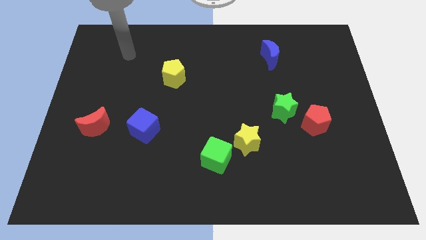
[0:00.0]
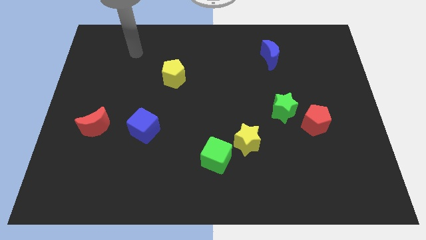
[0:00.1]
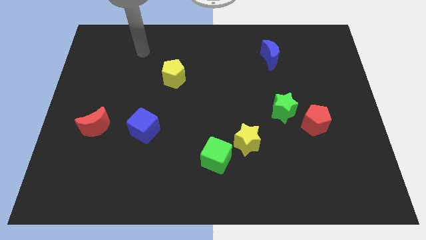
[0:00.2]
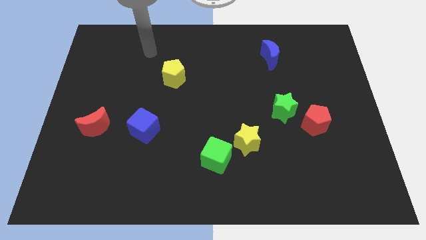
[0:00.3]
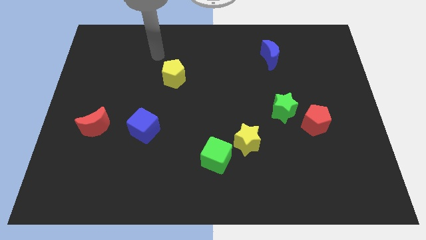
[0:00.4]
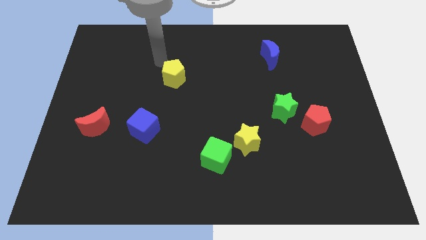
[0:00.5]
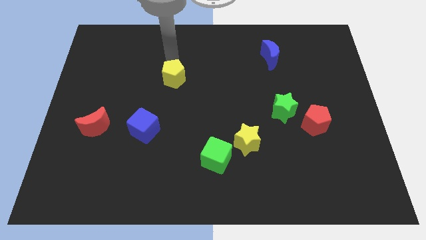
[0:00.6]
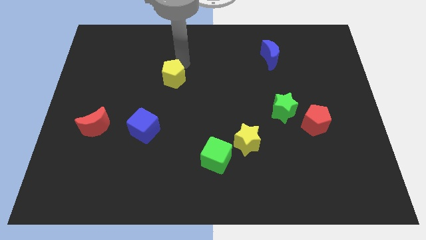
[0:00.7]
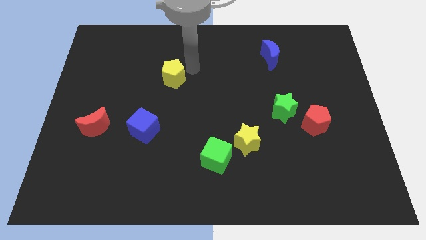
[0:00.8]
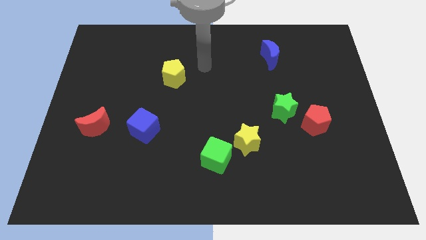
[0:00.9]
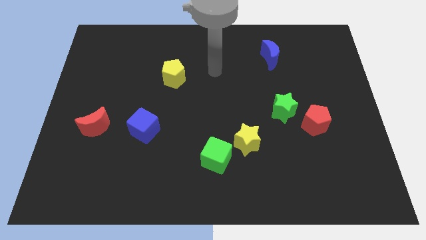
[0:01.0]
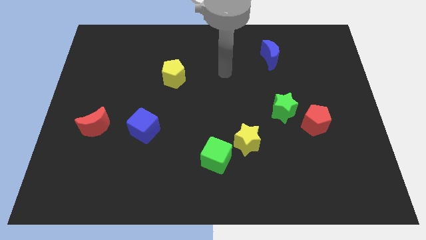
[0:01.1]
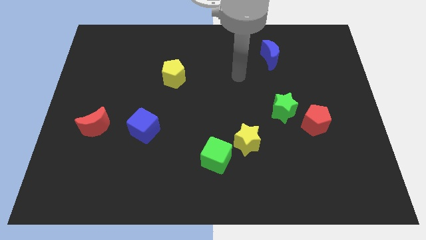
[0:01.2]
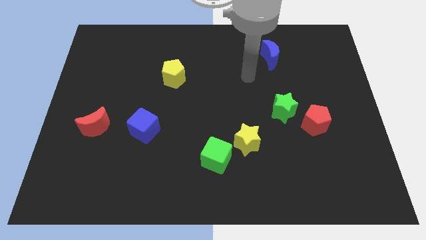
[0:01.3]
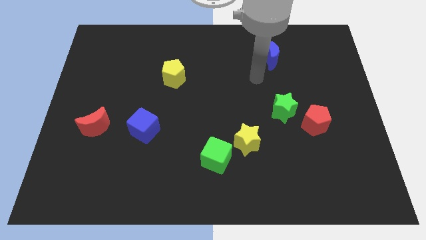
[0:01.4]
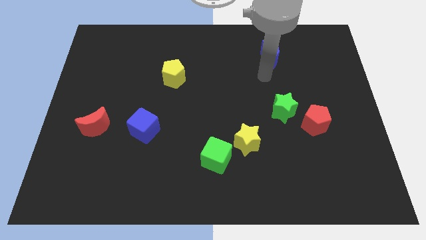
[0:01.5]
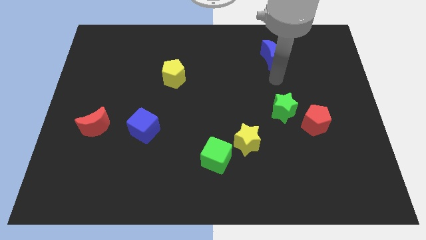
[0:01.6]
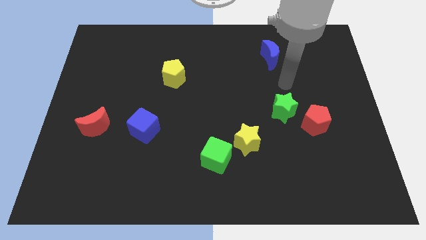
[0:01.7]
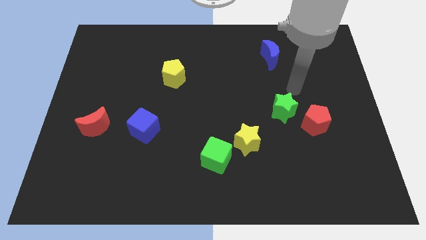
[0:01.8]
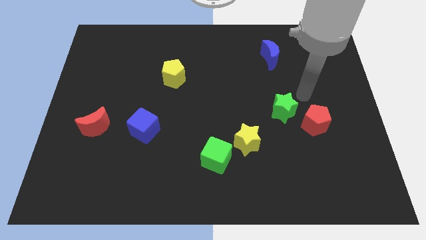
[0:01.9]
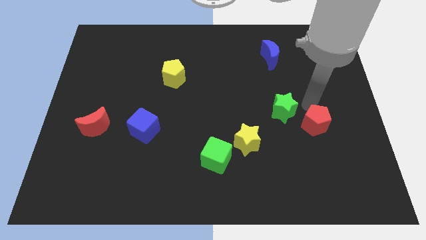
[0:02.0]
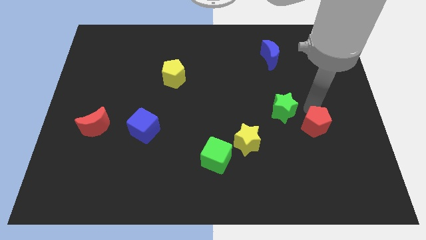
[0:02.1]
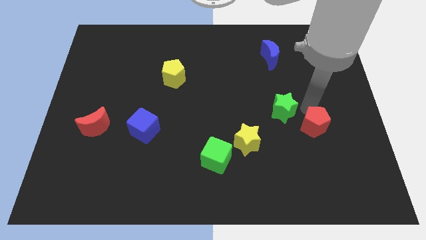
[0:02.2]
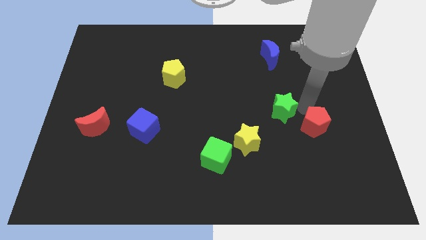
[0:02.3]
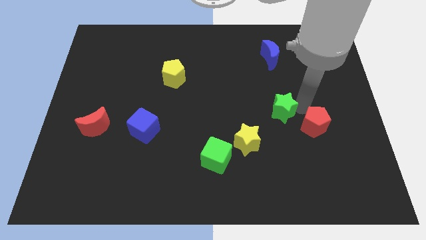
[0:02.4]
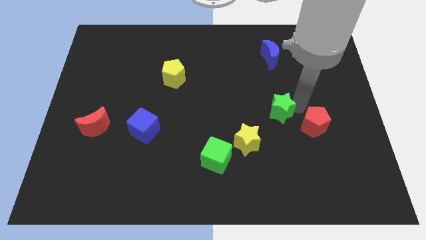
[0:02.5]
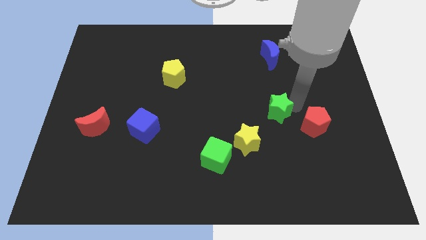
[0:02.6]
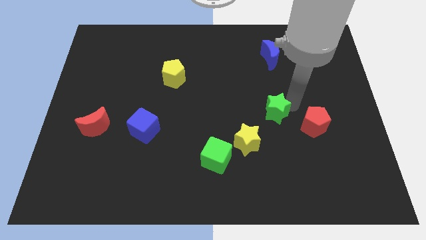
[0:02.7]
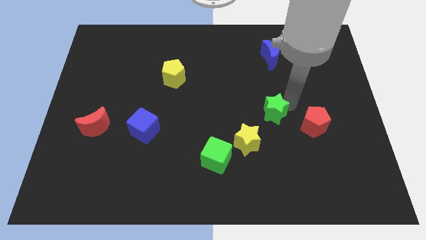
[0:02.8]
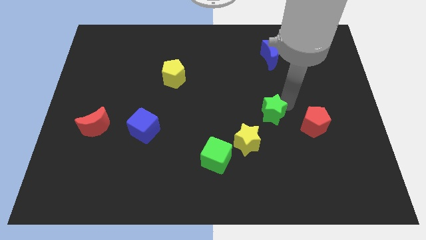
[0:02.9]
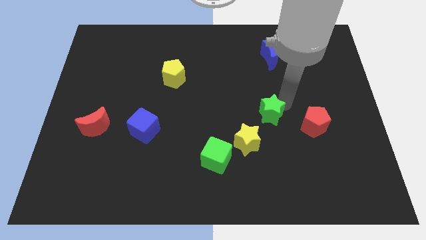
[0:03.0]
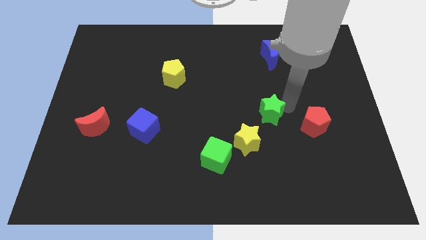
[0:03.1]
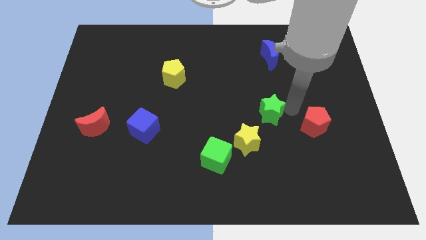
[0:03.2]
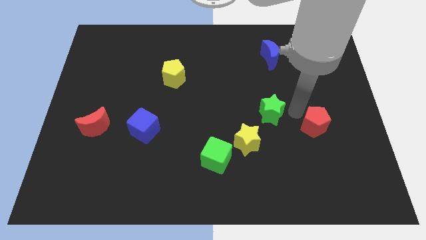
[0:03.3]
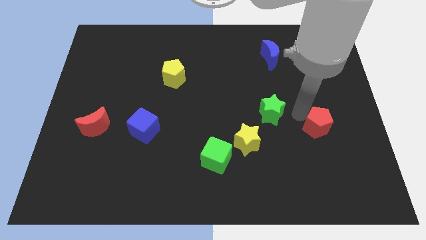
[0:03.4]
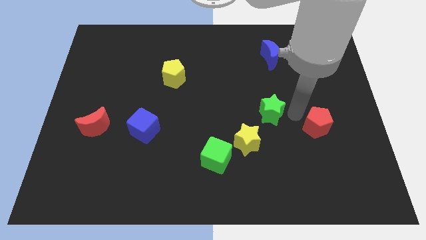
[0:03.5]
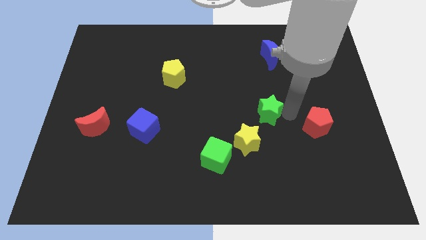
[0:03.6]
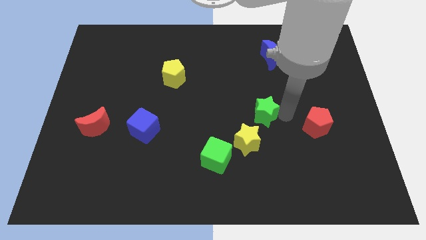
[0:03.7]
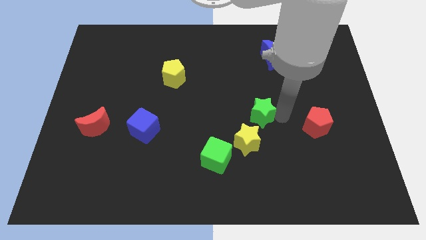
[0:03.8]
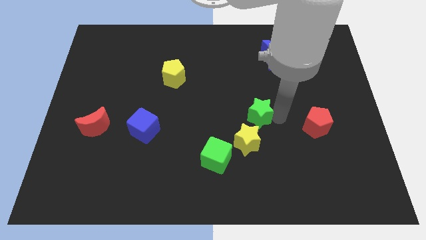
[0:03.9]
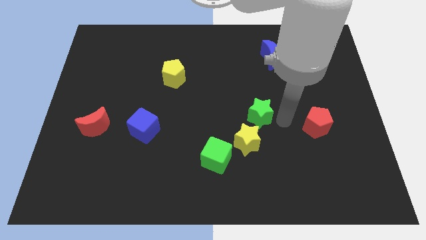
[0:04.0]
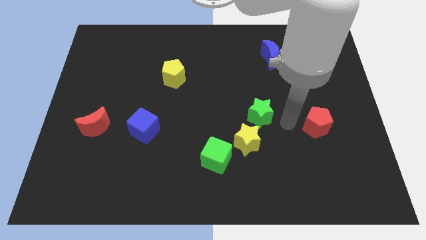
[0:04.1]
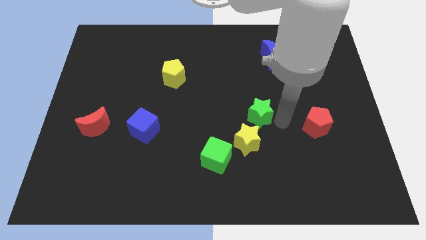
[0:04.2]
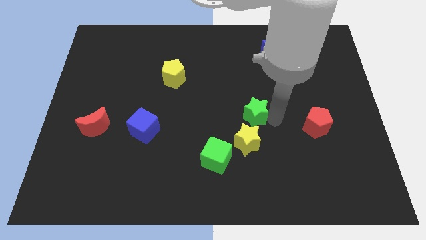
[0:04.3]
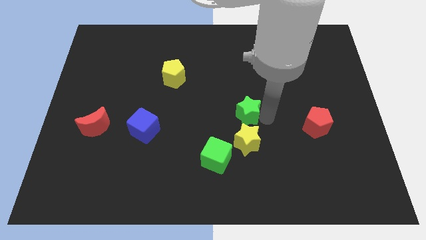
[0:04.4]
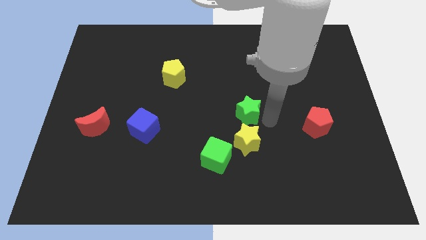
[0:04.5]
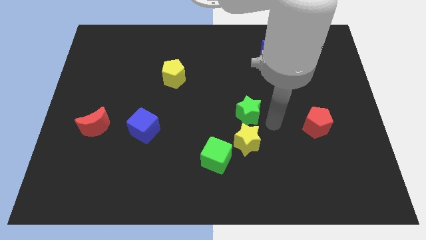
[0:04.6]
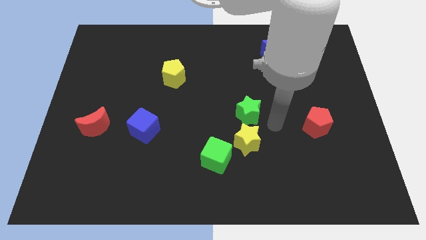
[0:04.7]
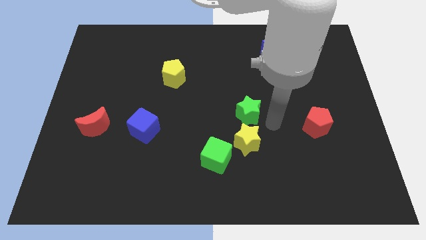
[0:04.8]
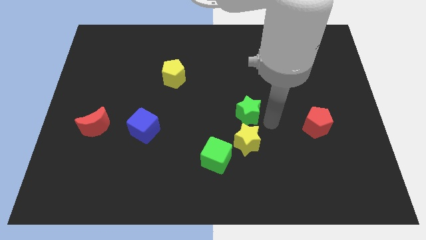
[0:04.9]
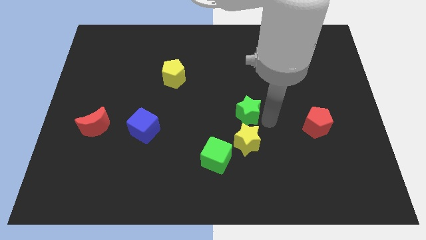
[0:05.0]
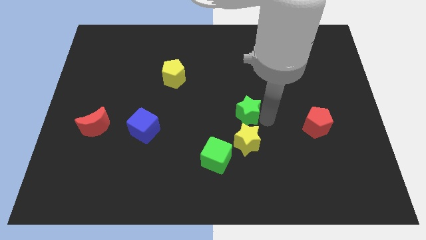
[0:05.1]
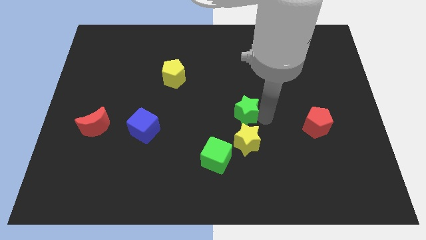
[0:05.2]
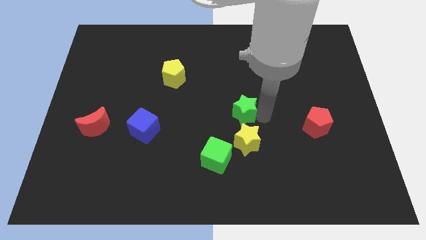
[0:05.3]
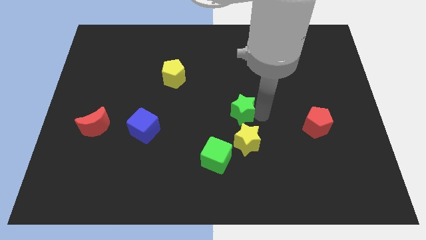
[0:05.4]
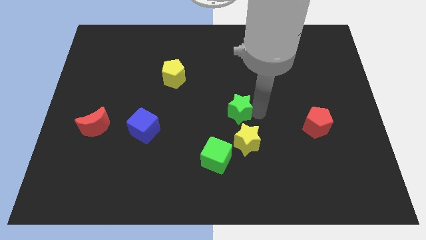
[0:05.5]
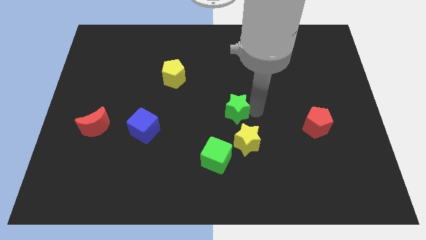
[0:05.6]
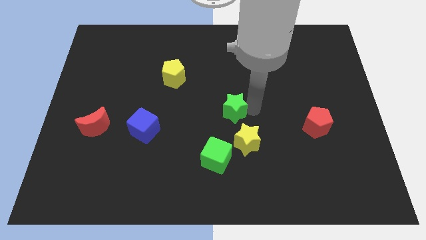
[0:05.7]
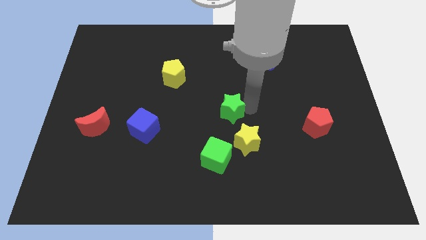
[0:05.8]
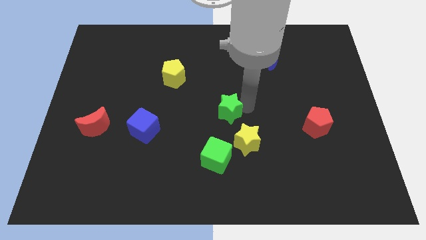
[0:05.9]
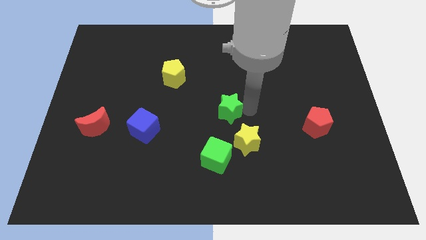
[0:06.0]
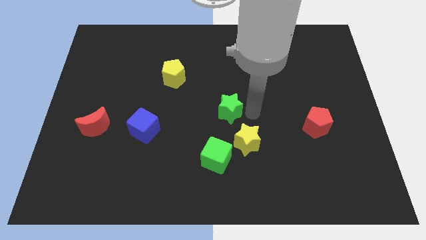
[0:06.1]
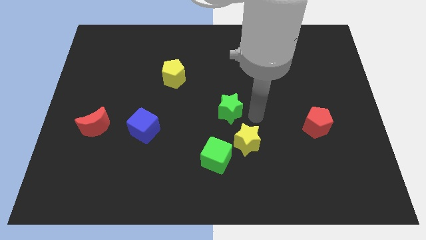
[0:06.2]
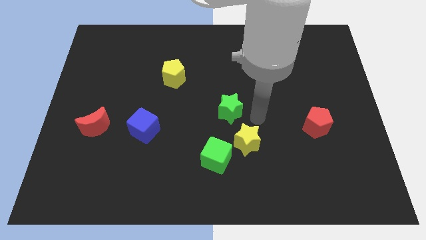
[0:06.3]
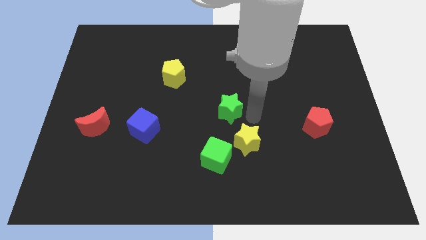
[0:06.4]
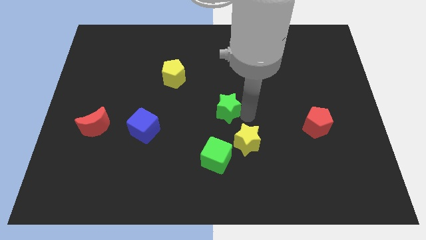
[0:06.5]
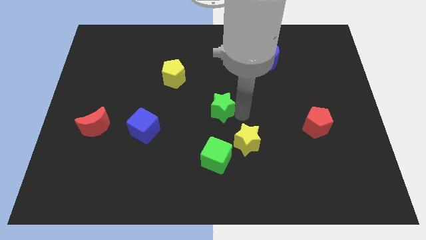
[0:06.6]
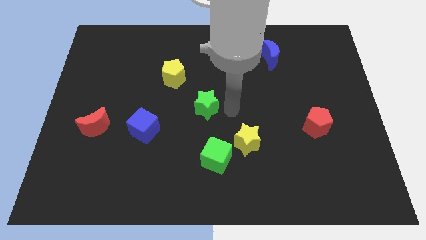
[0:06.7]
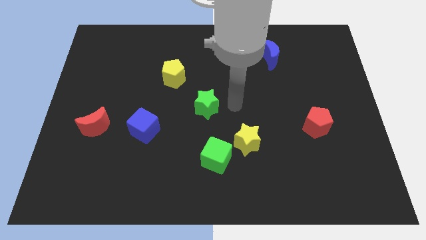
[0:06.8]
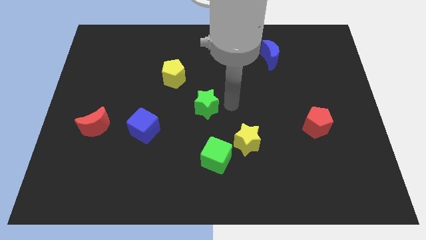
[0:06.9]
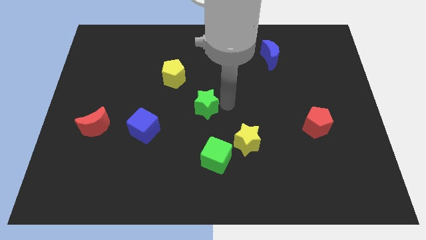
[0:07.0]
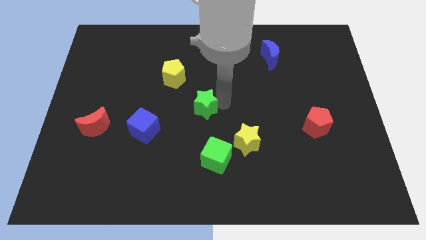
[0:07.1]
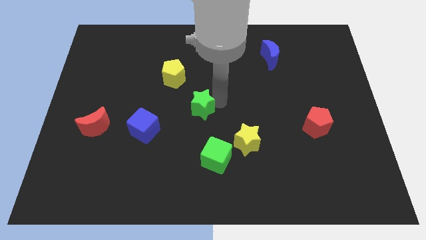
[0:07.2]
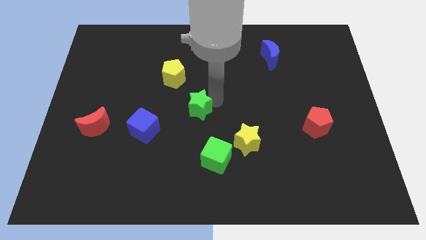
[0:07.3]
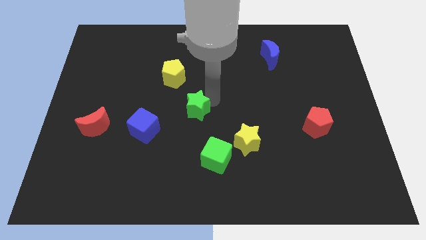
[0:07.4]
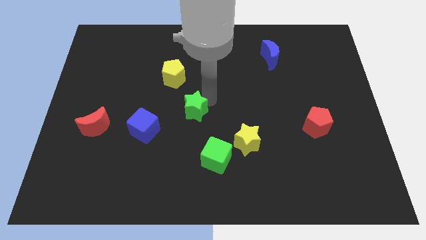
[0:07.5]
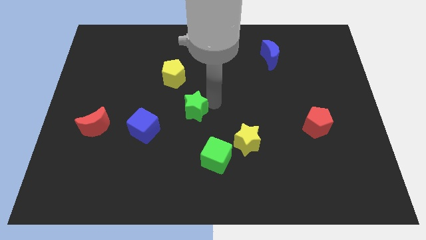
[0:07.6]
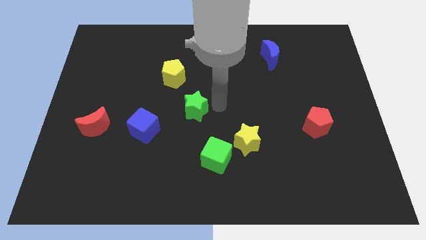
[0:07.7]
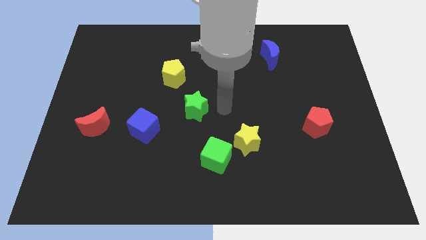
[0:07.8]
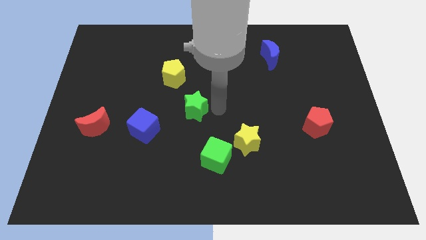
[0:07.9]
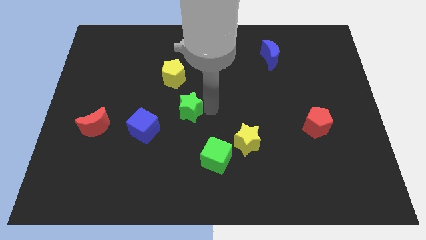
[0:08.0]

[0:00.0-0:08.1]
put the green star below the yellow pentagon
